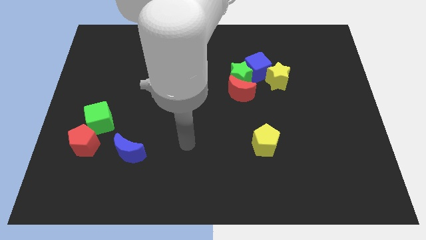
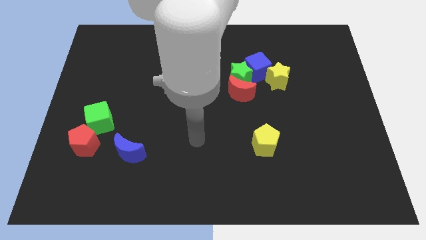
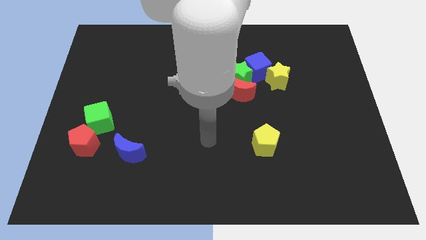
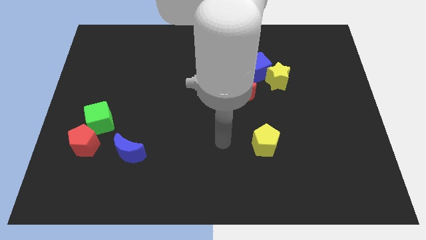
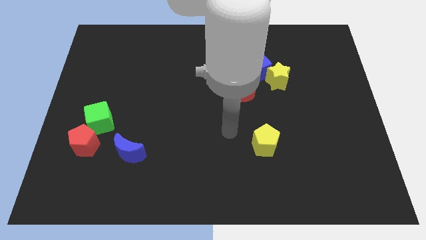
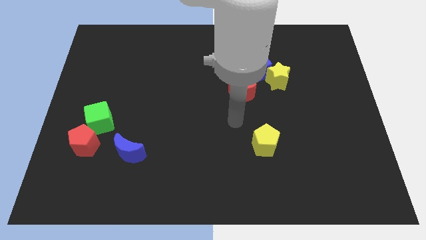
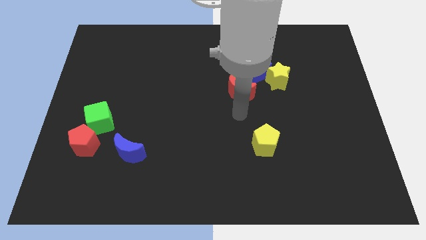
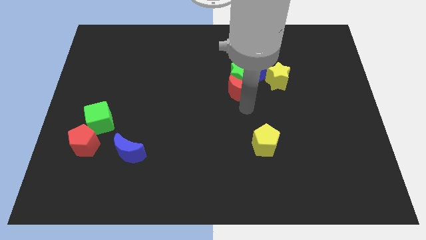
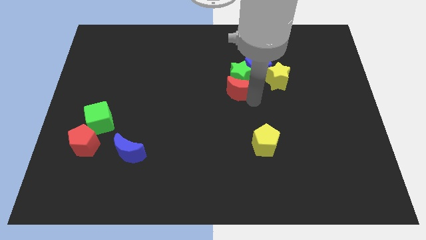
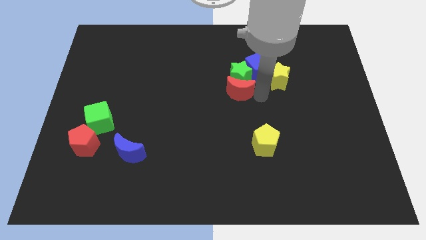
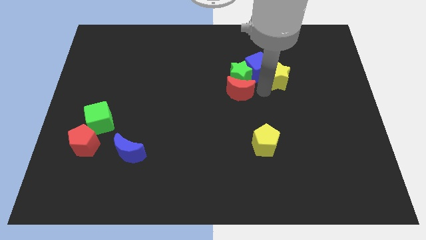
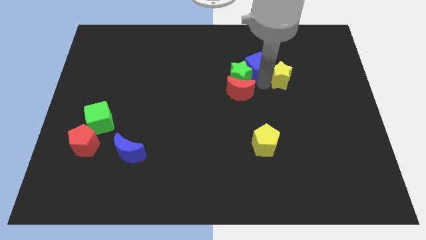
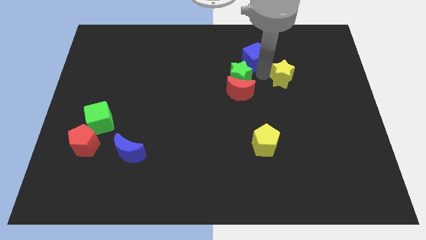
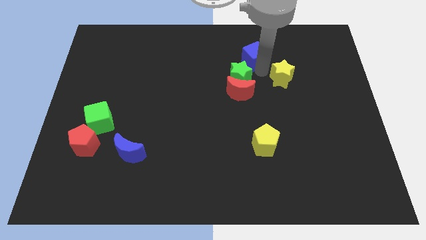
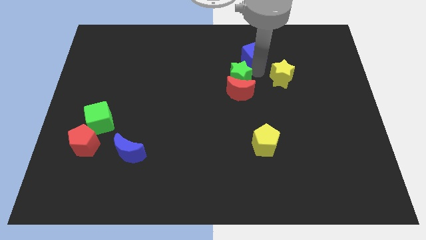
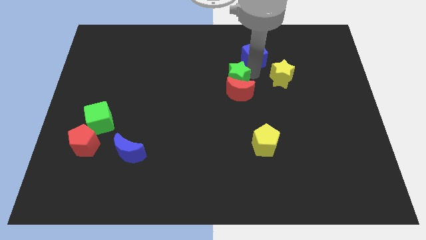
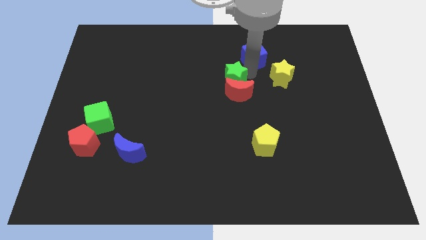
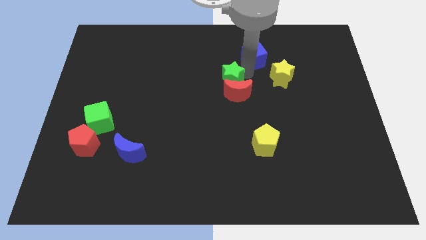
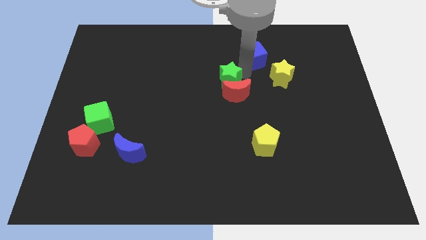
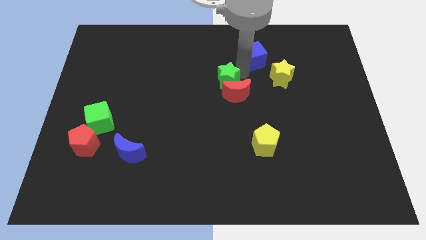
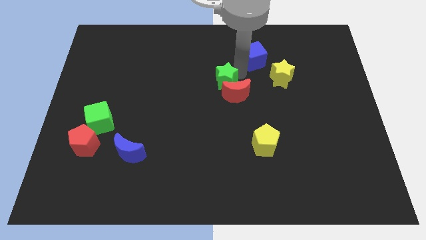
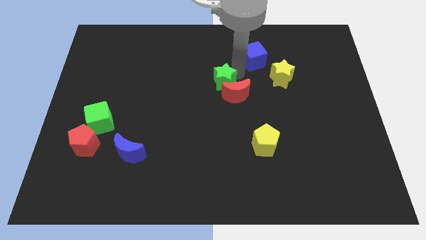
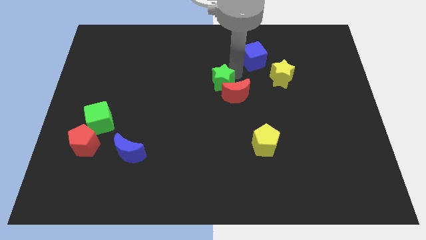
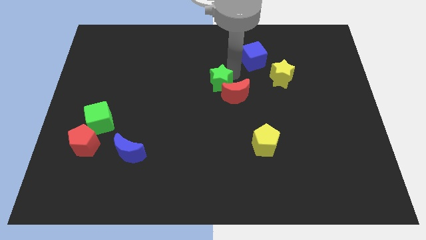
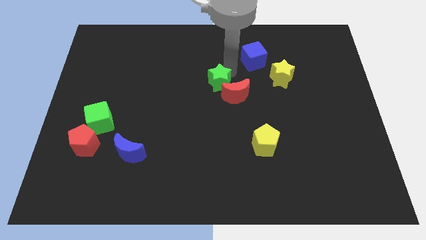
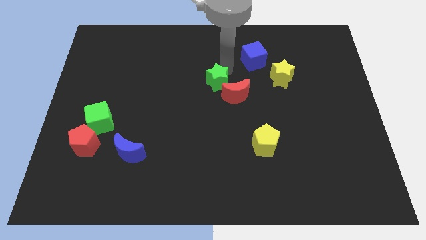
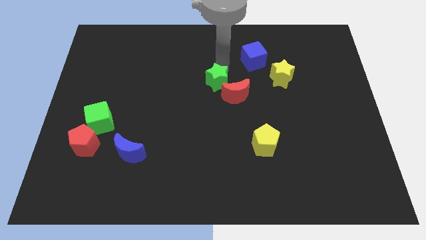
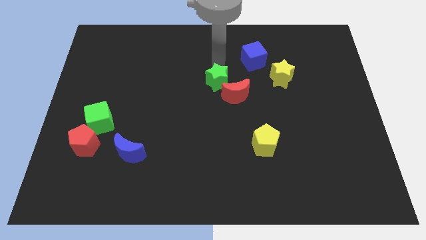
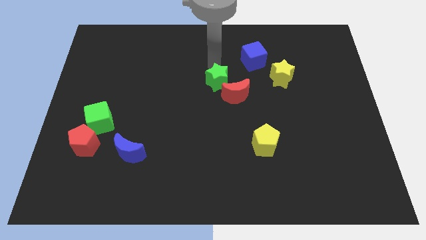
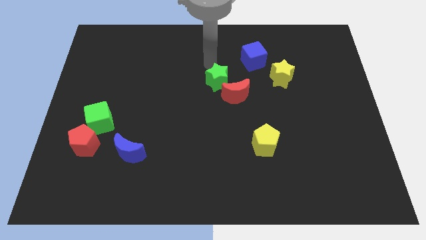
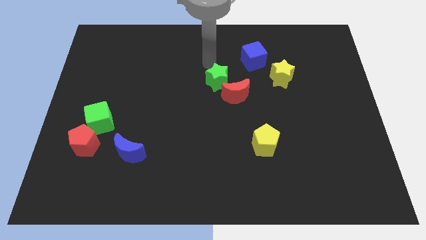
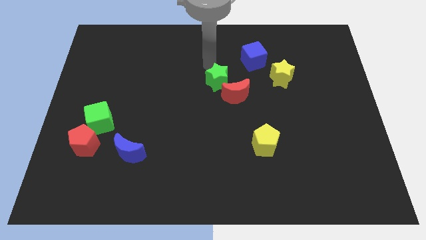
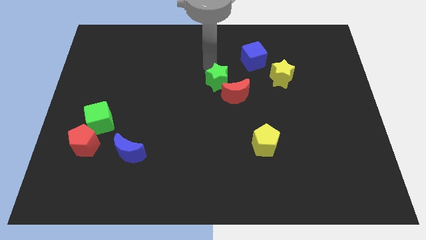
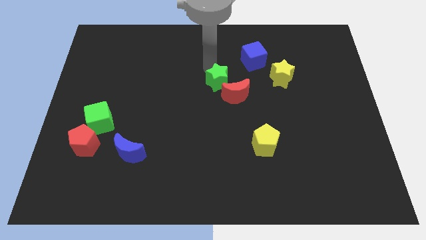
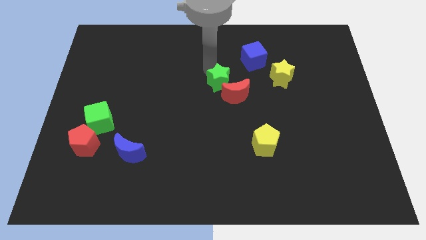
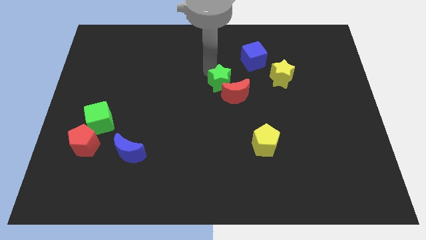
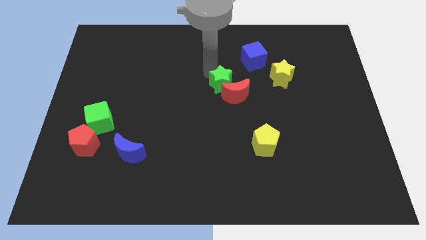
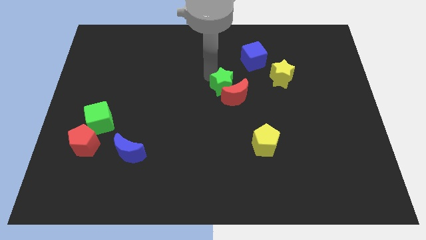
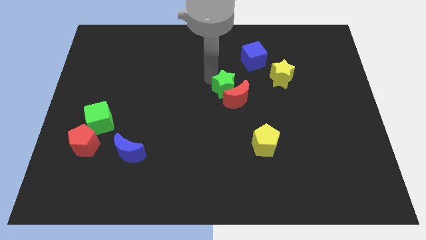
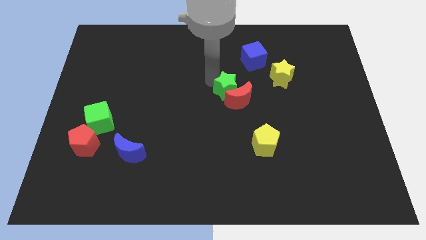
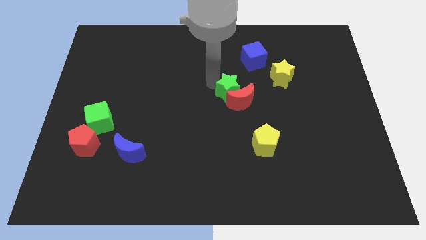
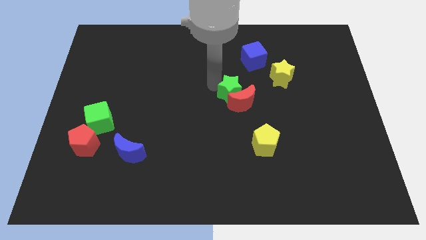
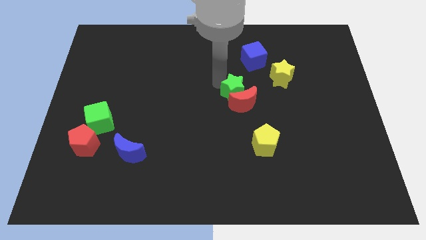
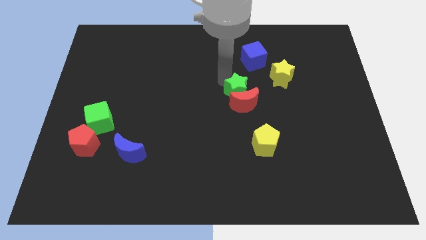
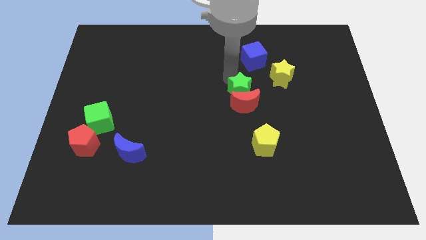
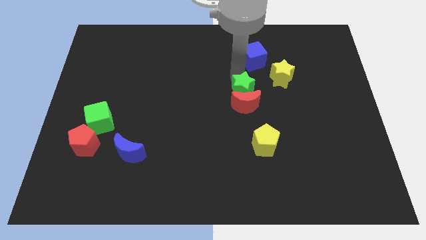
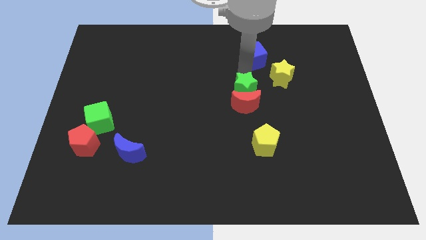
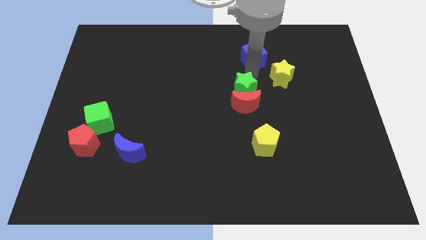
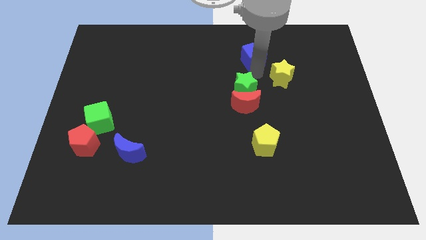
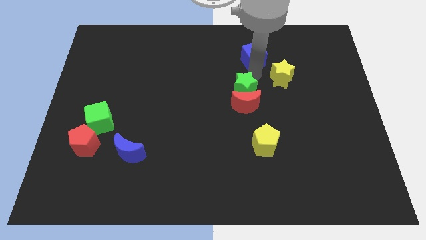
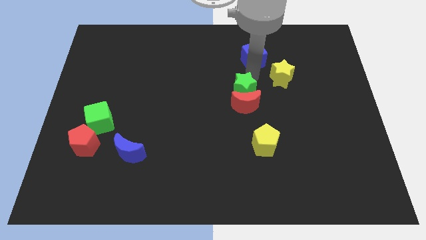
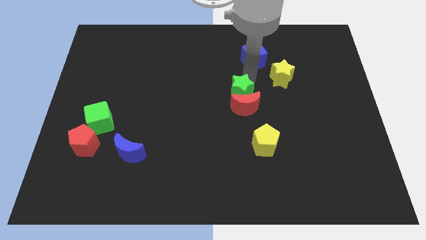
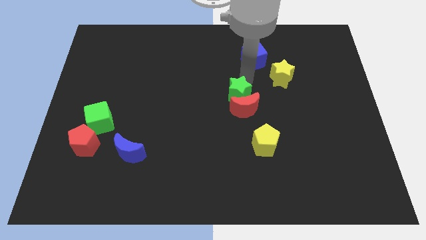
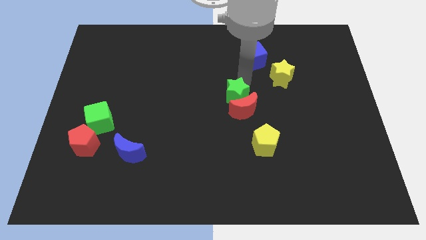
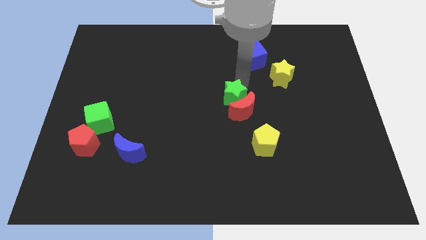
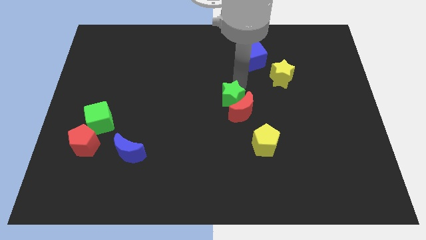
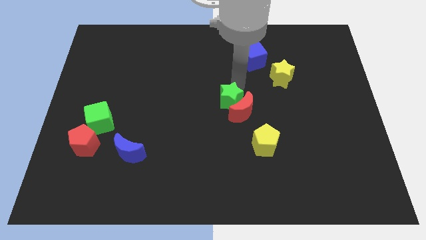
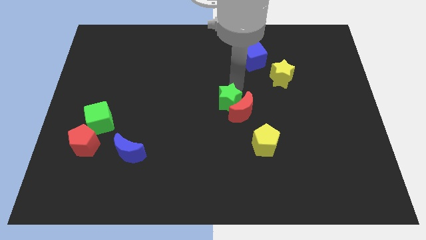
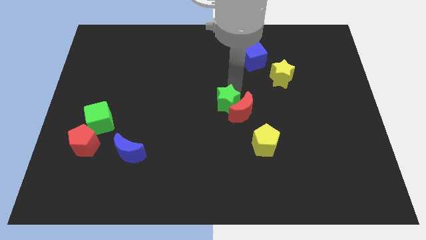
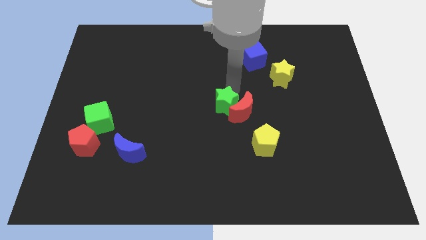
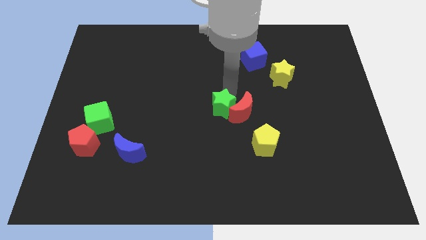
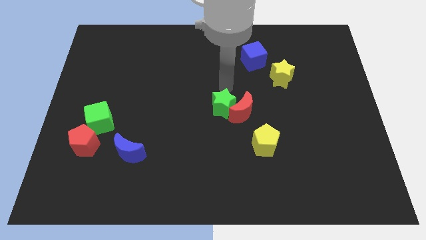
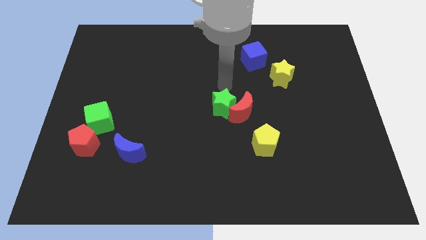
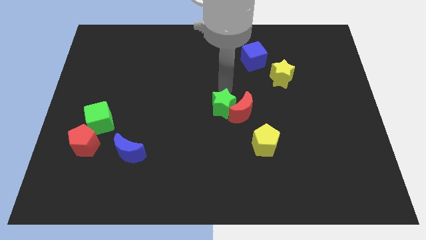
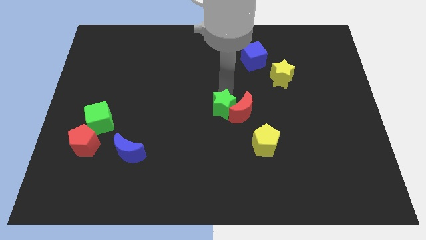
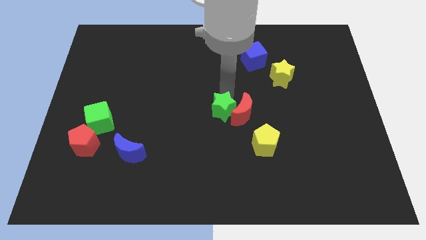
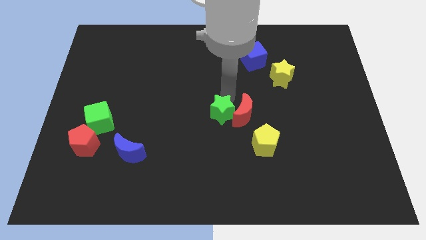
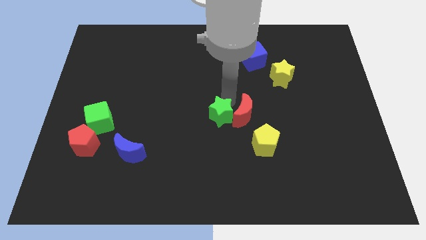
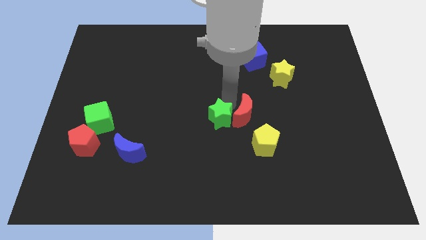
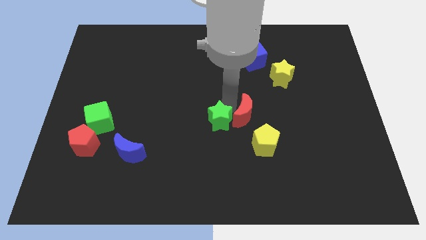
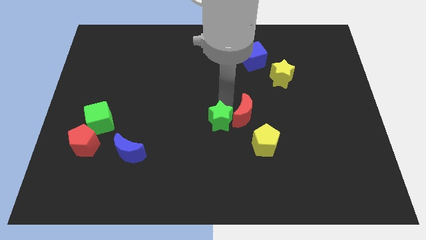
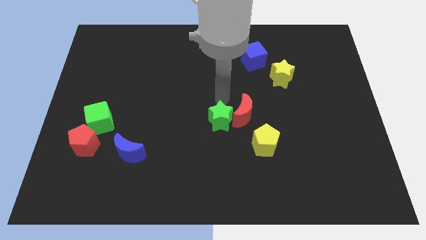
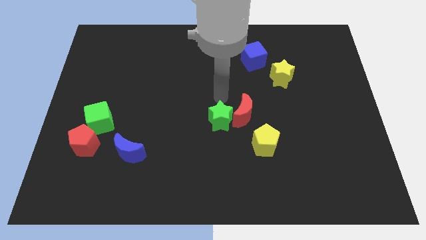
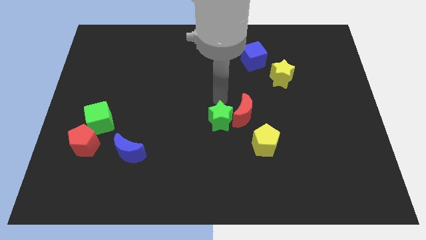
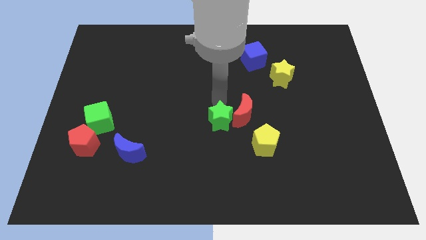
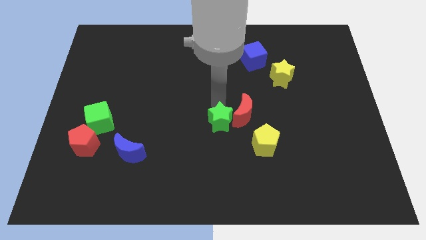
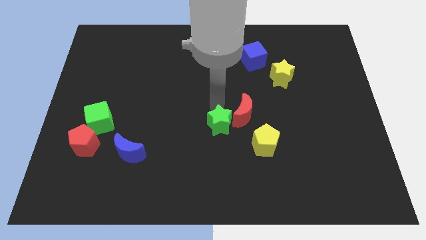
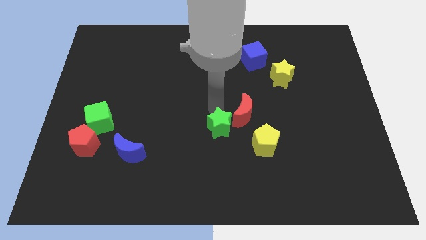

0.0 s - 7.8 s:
slide the green star to the left side of the yellow pentagon
